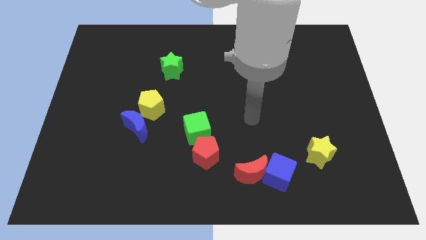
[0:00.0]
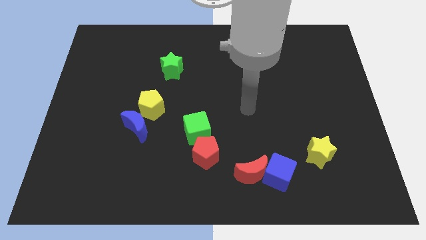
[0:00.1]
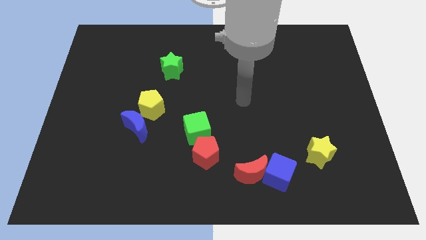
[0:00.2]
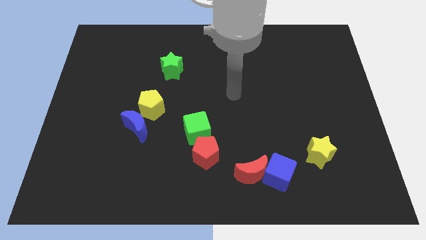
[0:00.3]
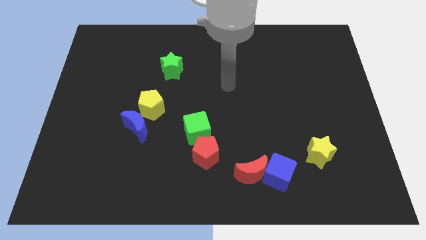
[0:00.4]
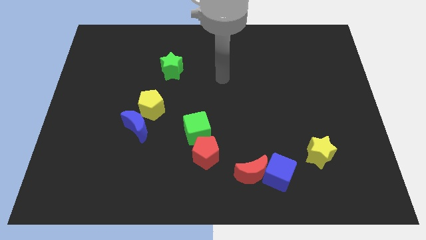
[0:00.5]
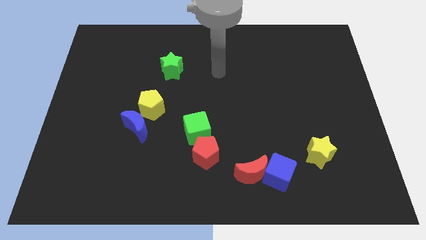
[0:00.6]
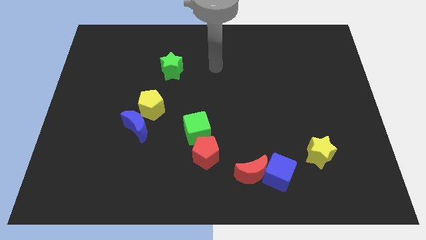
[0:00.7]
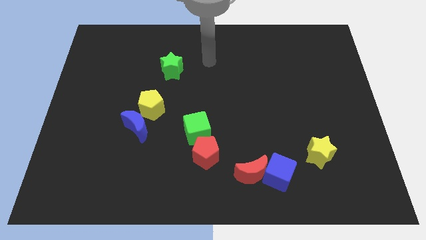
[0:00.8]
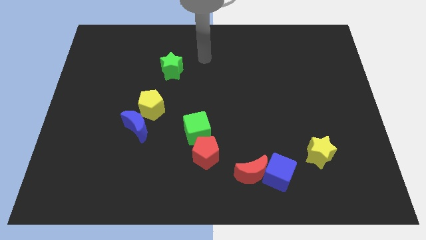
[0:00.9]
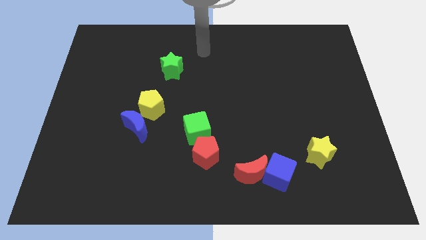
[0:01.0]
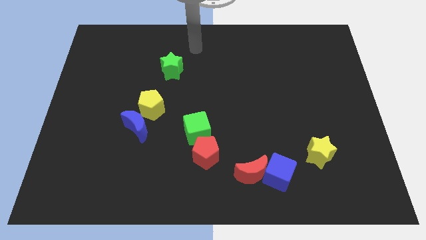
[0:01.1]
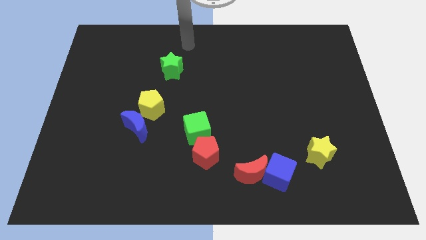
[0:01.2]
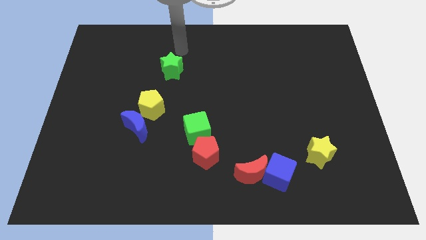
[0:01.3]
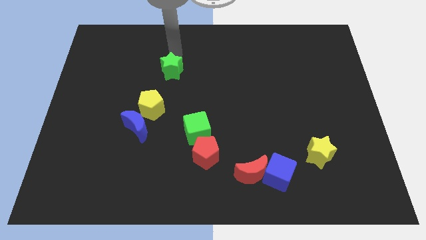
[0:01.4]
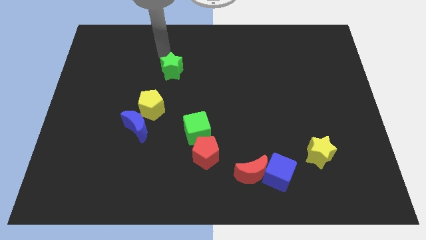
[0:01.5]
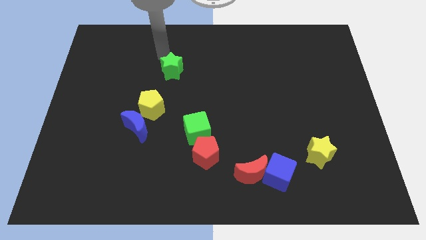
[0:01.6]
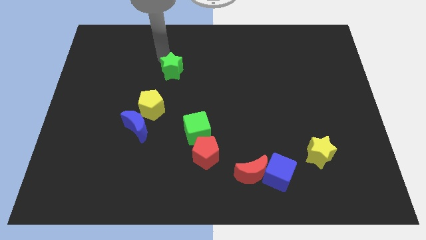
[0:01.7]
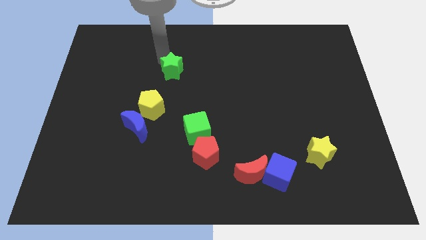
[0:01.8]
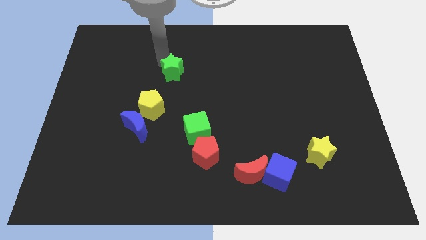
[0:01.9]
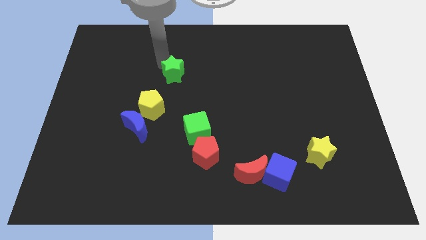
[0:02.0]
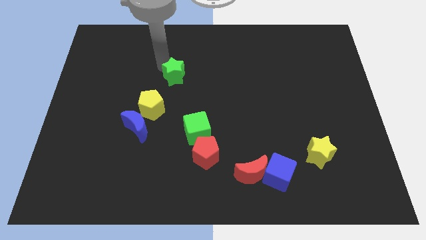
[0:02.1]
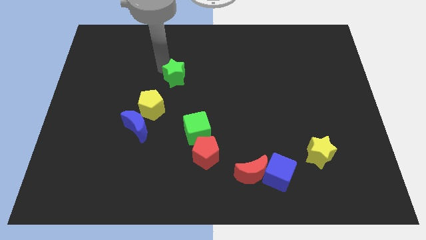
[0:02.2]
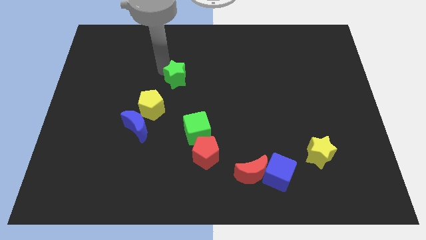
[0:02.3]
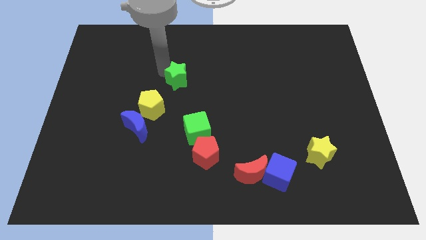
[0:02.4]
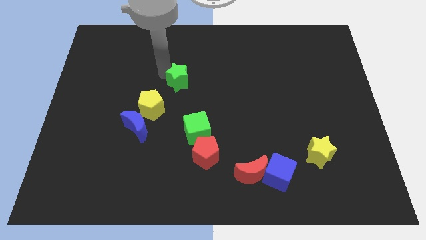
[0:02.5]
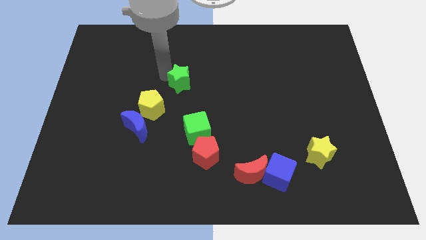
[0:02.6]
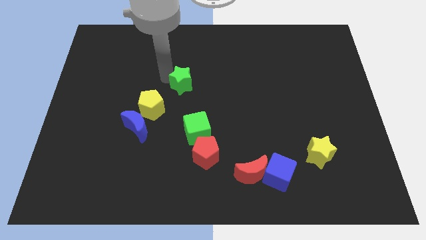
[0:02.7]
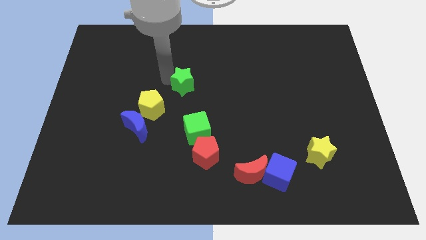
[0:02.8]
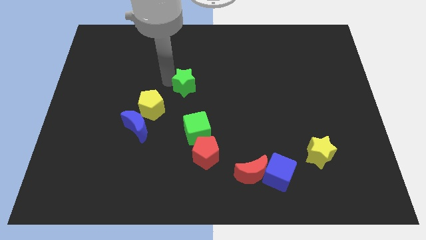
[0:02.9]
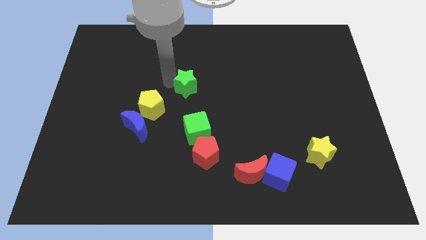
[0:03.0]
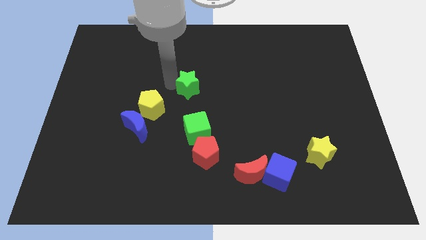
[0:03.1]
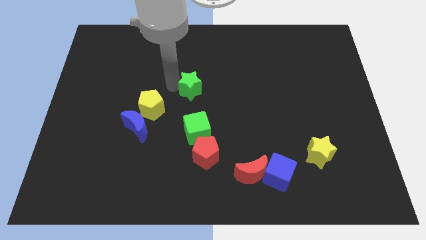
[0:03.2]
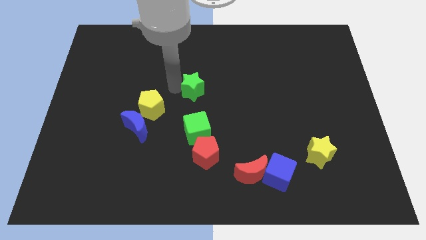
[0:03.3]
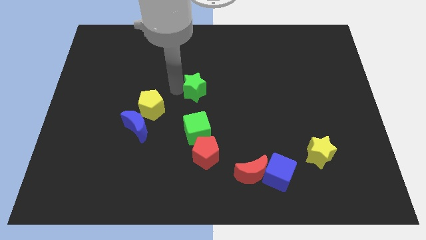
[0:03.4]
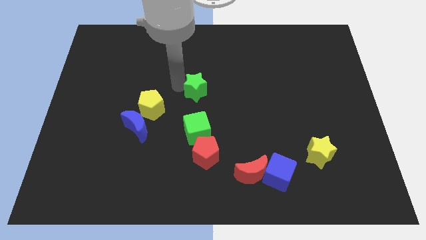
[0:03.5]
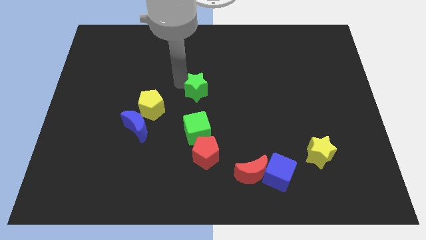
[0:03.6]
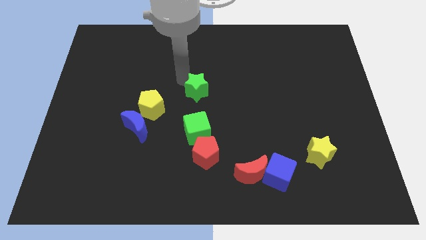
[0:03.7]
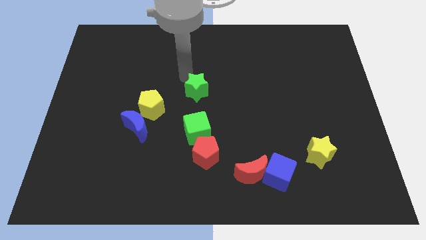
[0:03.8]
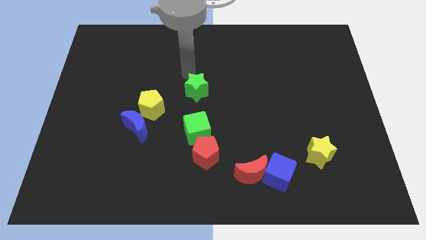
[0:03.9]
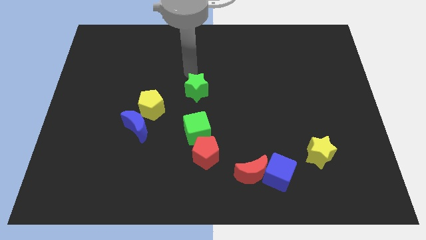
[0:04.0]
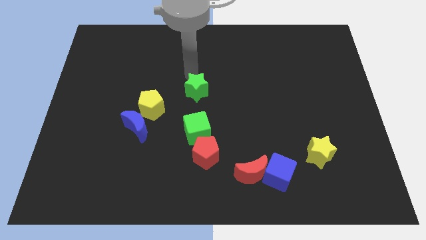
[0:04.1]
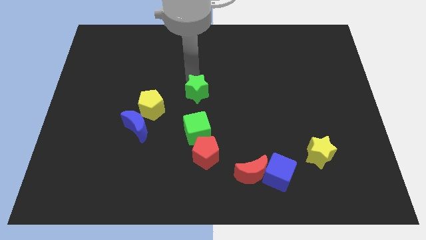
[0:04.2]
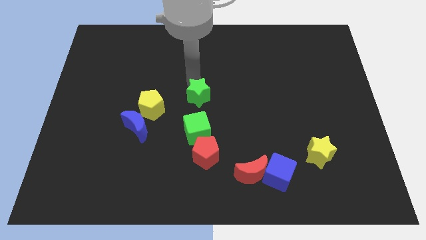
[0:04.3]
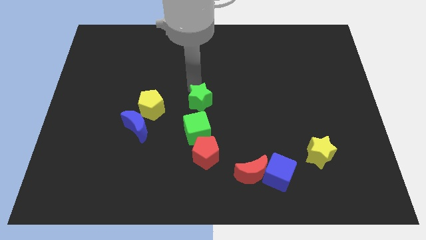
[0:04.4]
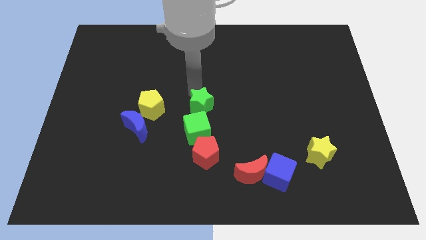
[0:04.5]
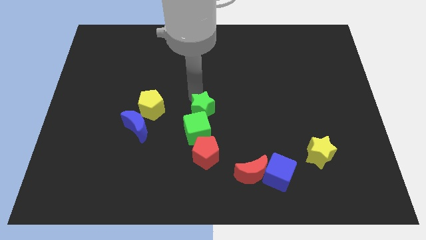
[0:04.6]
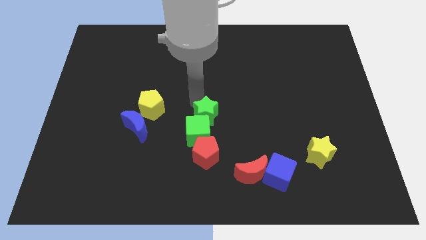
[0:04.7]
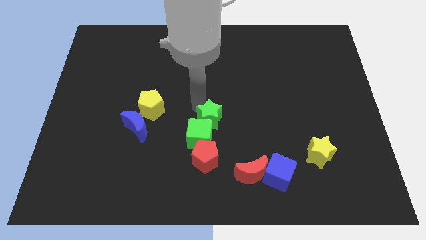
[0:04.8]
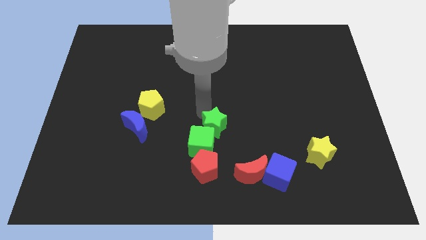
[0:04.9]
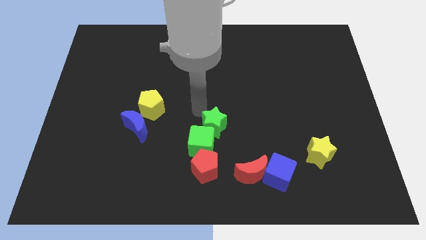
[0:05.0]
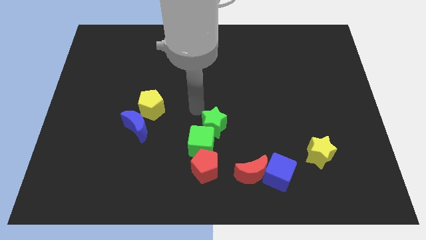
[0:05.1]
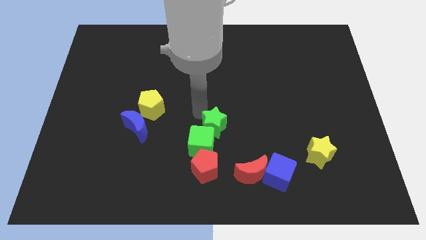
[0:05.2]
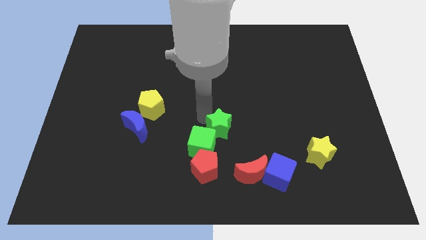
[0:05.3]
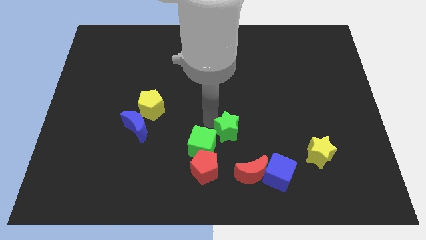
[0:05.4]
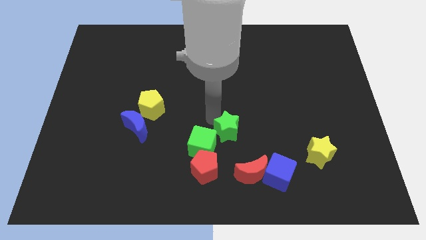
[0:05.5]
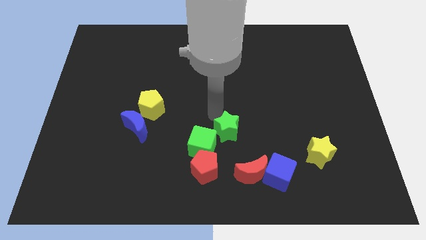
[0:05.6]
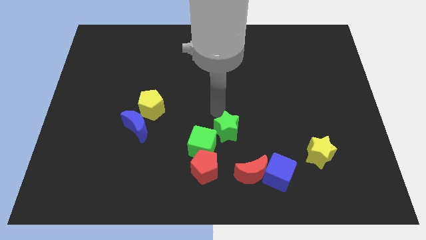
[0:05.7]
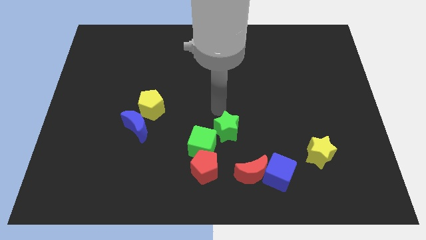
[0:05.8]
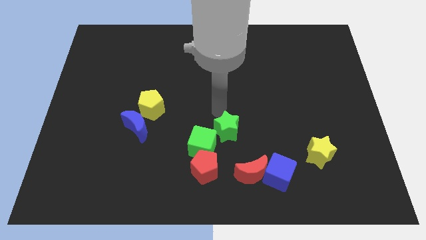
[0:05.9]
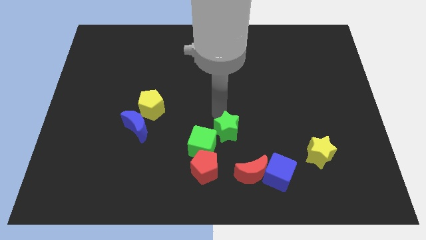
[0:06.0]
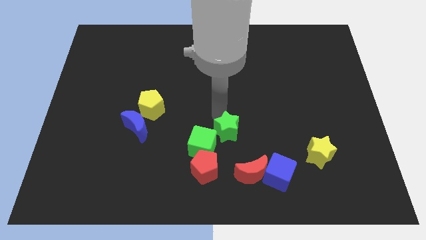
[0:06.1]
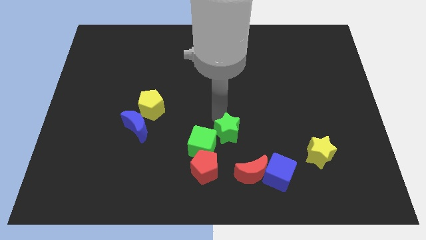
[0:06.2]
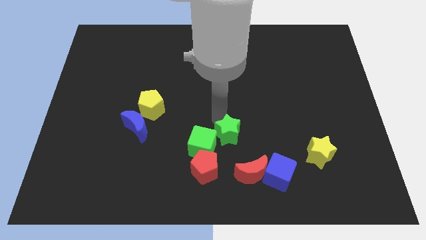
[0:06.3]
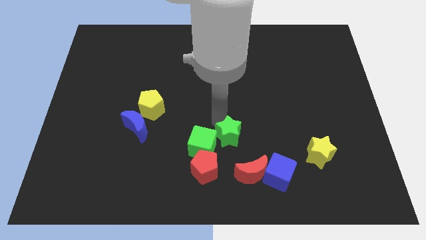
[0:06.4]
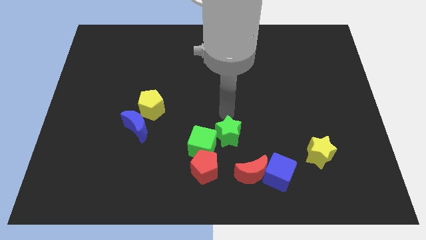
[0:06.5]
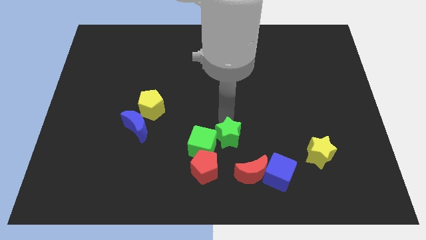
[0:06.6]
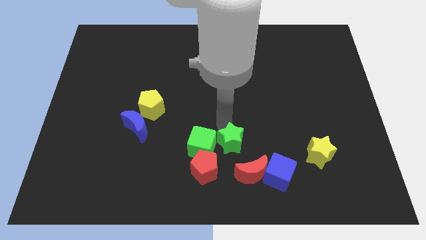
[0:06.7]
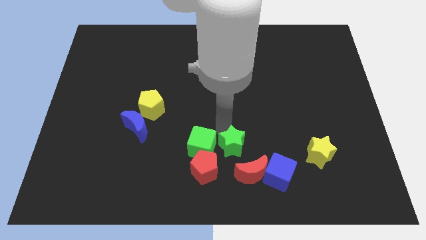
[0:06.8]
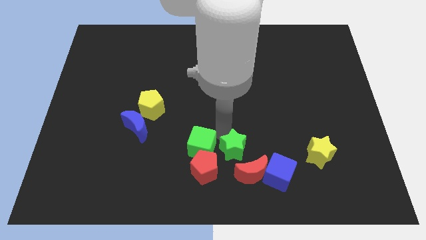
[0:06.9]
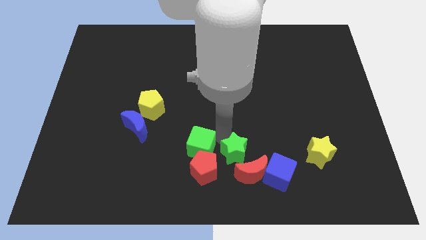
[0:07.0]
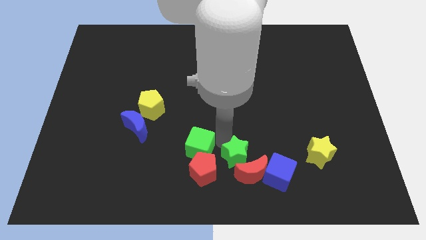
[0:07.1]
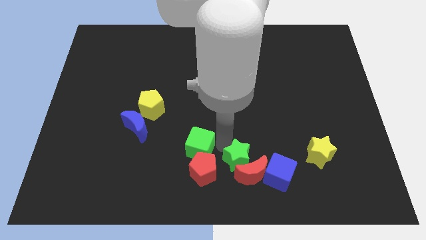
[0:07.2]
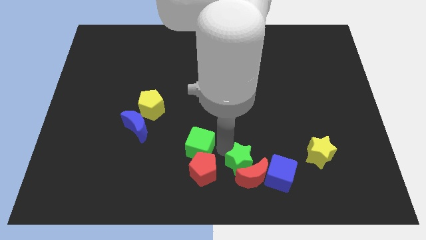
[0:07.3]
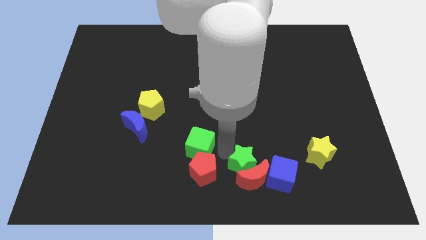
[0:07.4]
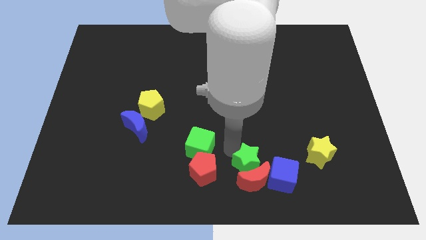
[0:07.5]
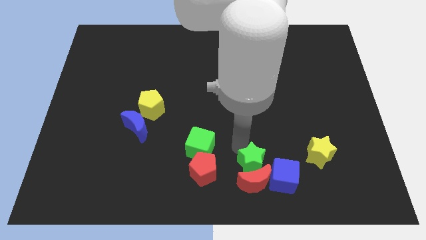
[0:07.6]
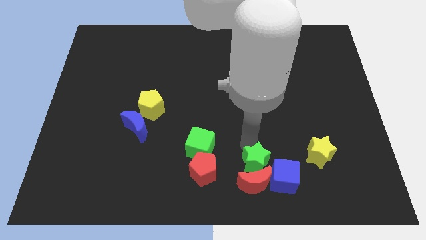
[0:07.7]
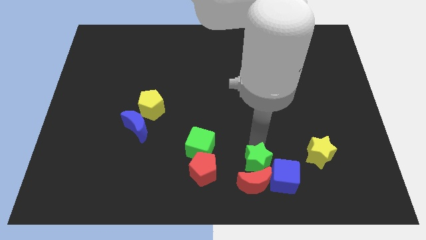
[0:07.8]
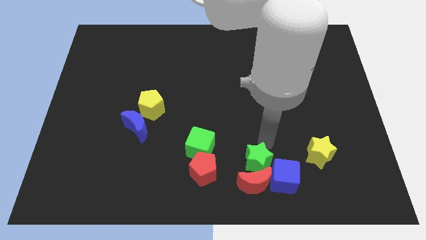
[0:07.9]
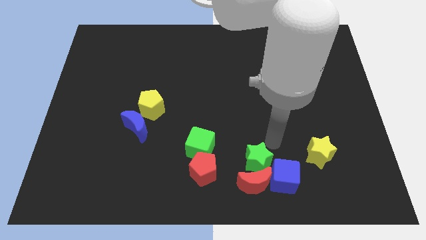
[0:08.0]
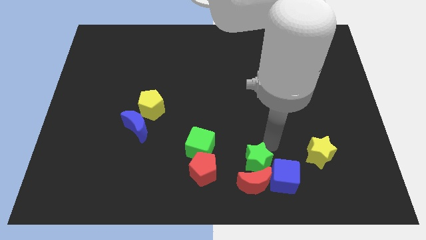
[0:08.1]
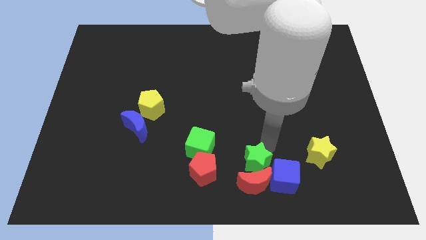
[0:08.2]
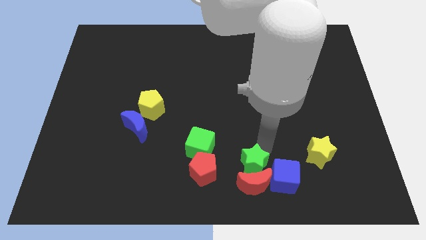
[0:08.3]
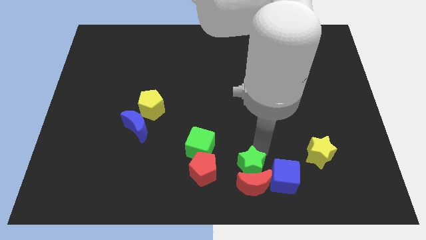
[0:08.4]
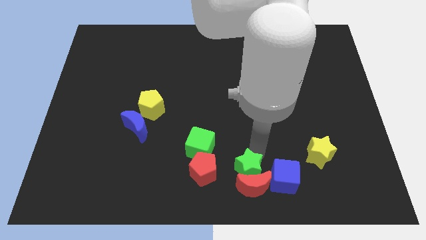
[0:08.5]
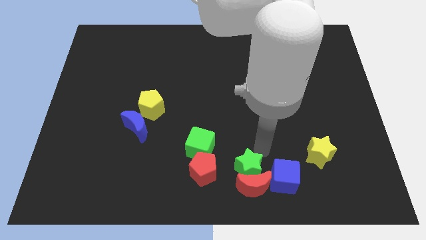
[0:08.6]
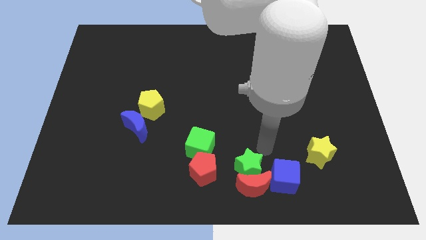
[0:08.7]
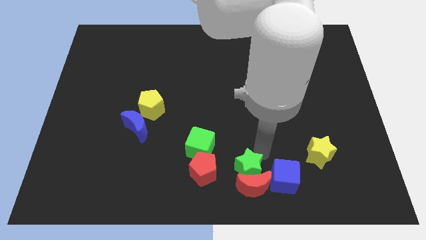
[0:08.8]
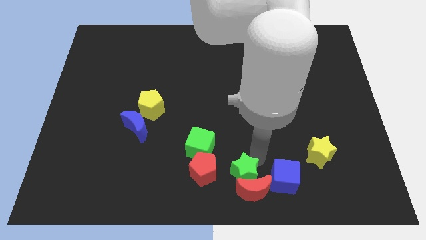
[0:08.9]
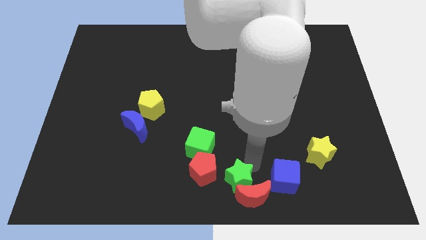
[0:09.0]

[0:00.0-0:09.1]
slide the green star to the bottom right of the red pentagon
